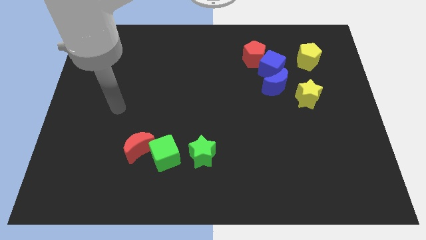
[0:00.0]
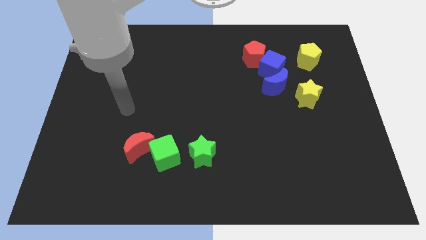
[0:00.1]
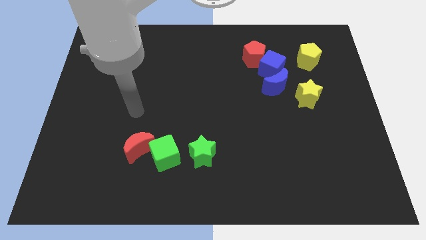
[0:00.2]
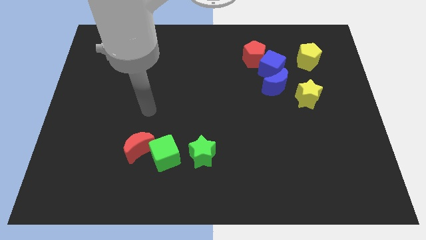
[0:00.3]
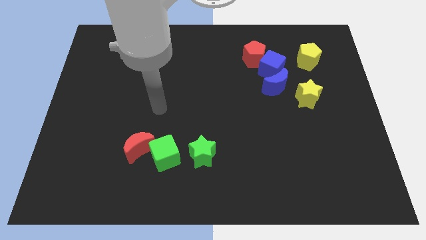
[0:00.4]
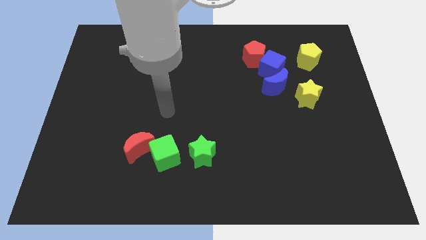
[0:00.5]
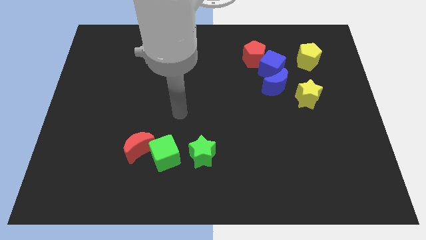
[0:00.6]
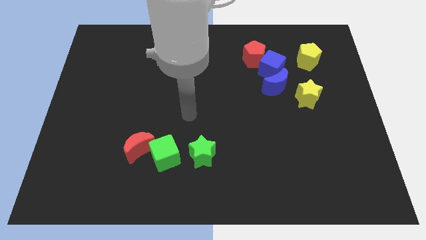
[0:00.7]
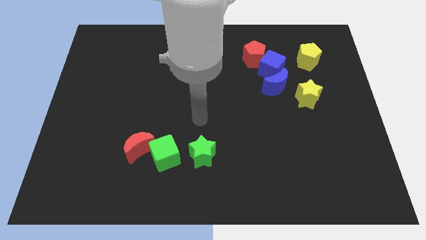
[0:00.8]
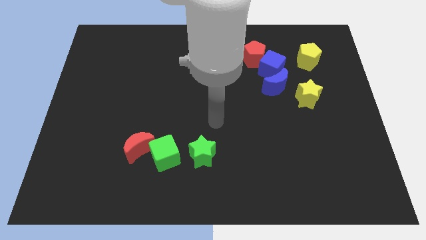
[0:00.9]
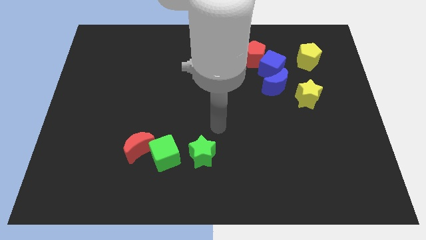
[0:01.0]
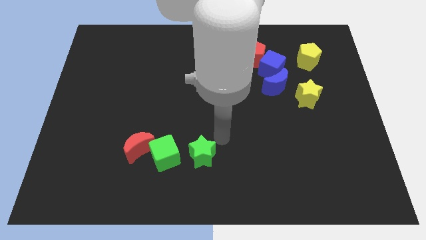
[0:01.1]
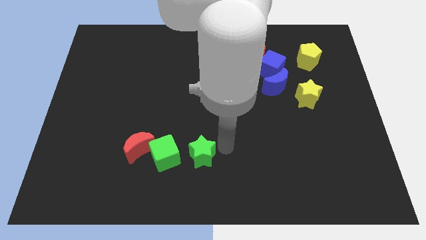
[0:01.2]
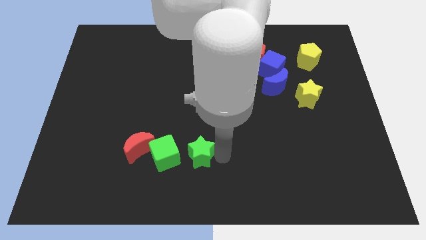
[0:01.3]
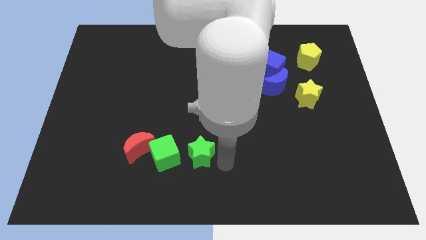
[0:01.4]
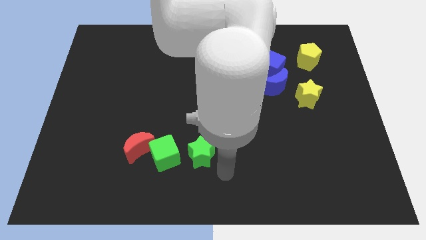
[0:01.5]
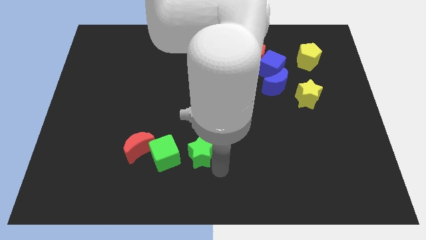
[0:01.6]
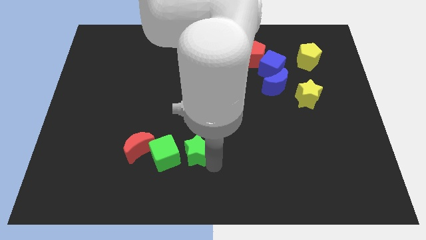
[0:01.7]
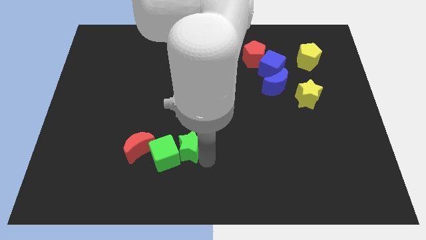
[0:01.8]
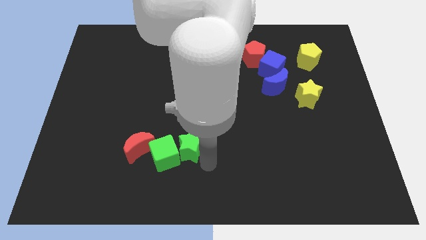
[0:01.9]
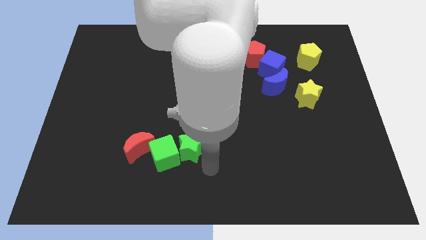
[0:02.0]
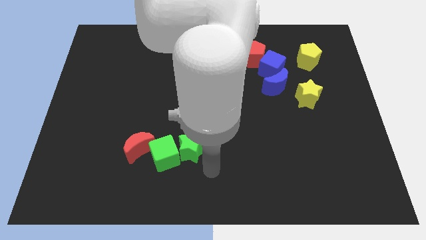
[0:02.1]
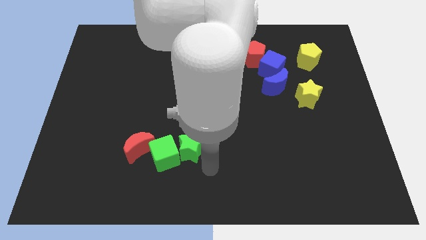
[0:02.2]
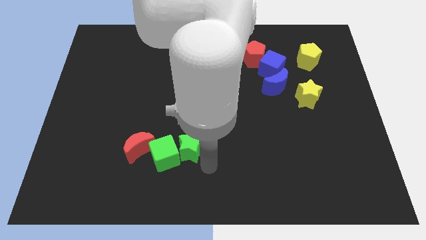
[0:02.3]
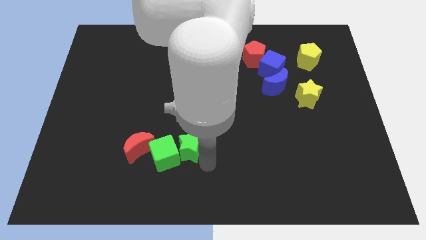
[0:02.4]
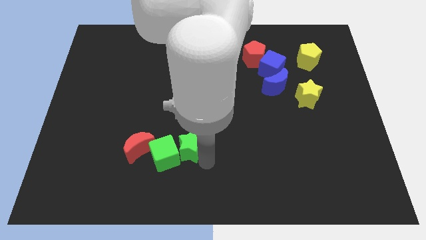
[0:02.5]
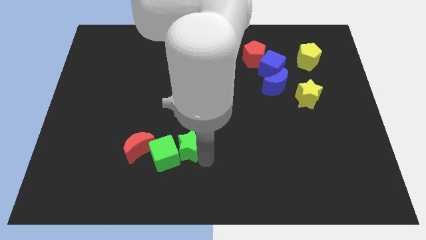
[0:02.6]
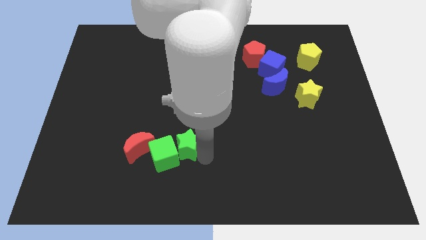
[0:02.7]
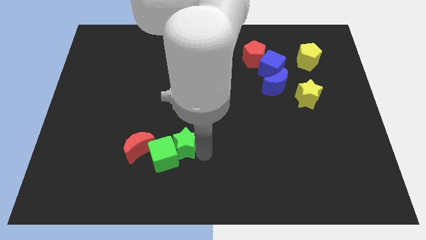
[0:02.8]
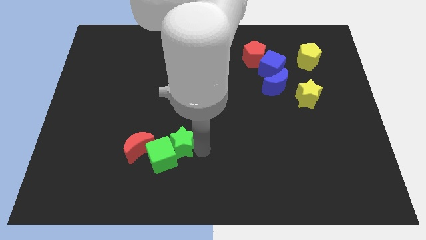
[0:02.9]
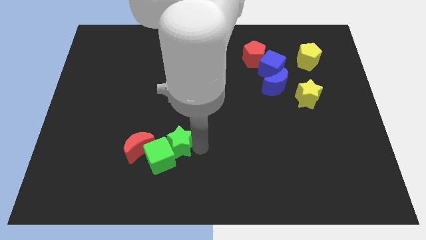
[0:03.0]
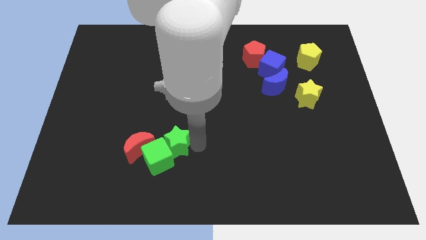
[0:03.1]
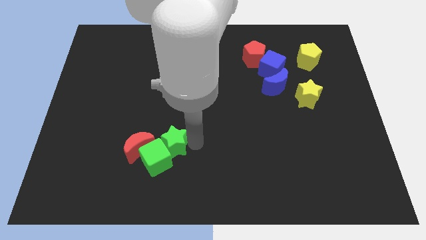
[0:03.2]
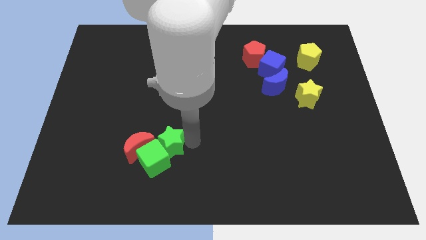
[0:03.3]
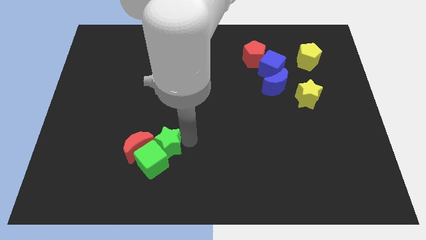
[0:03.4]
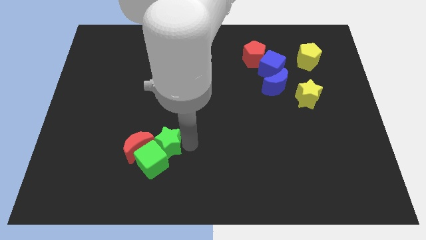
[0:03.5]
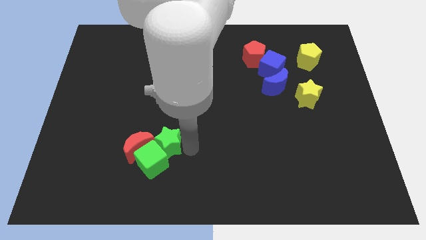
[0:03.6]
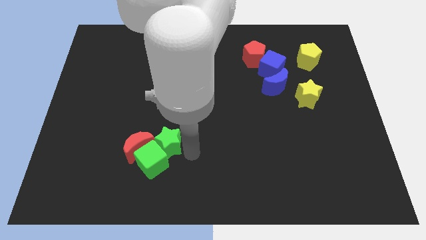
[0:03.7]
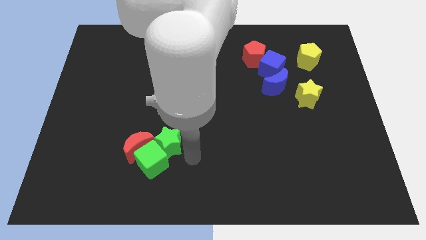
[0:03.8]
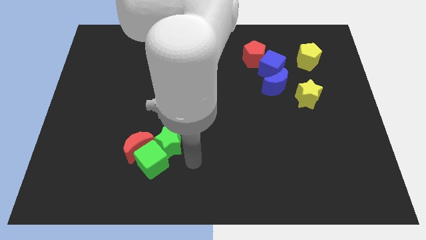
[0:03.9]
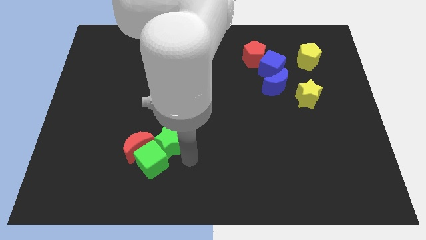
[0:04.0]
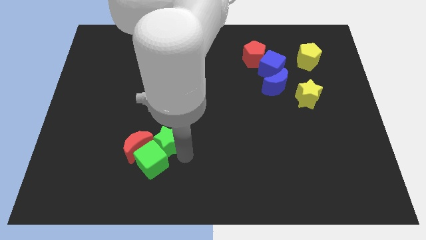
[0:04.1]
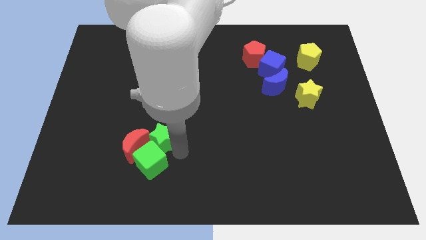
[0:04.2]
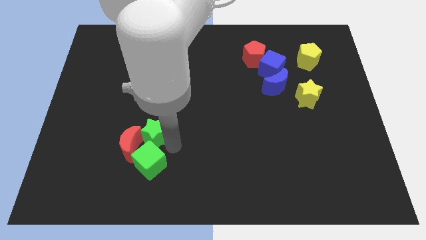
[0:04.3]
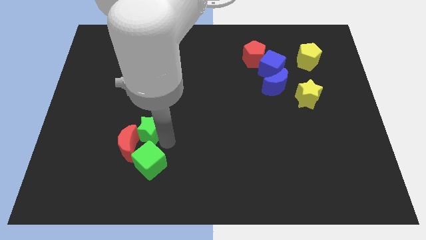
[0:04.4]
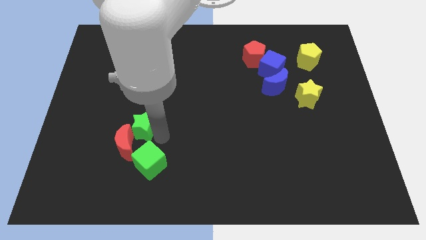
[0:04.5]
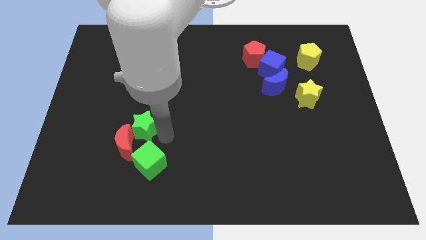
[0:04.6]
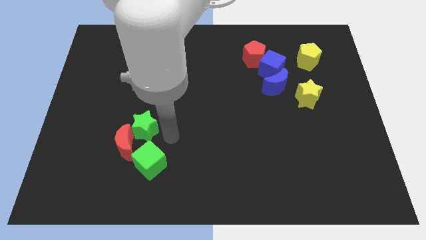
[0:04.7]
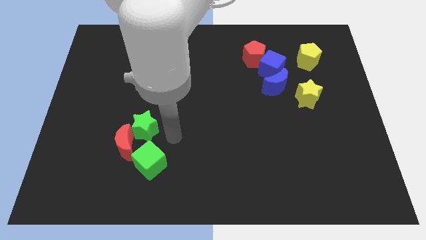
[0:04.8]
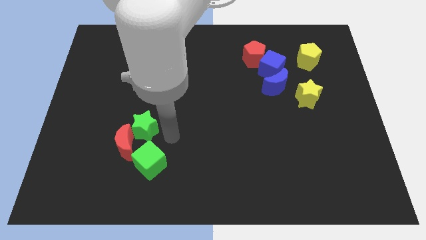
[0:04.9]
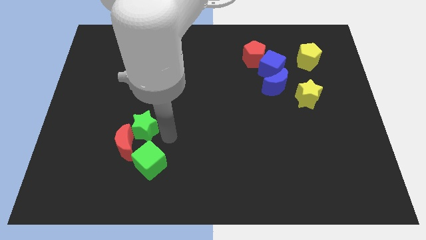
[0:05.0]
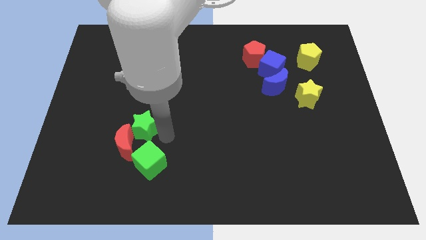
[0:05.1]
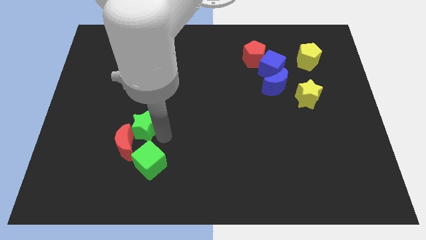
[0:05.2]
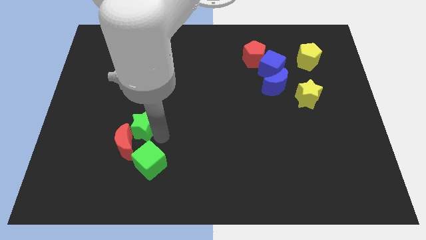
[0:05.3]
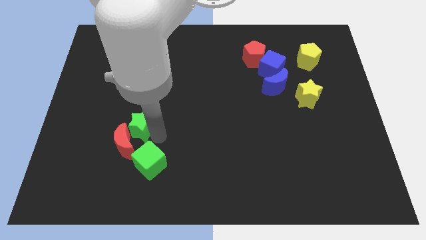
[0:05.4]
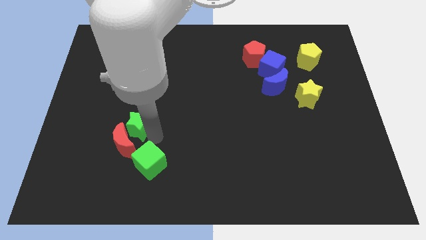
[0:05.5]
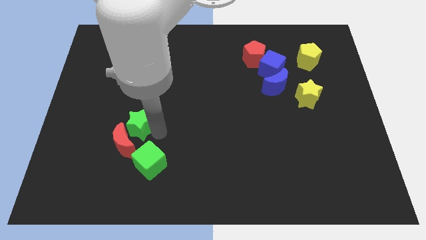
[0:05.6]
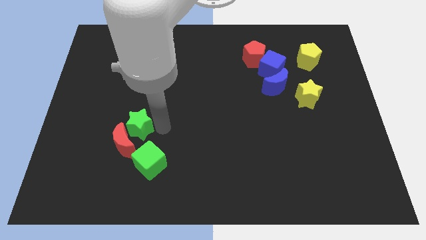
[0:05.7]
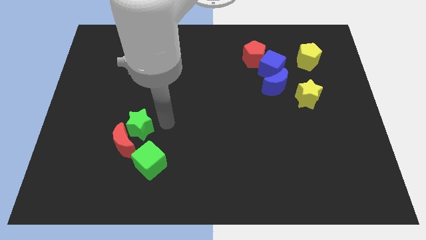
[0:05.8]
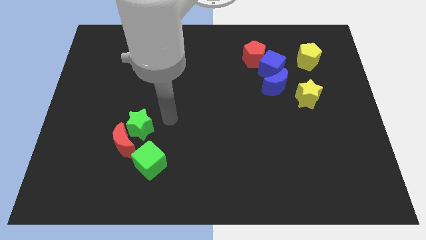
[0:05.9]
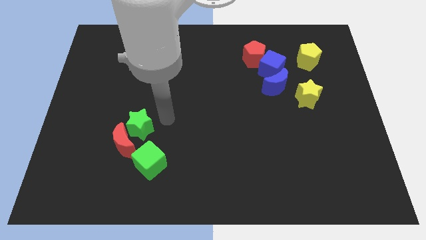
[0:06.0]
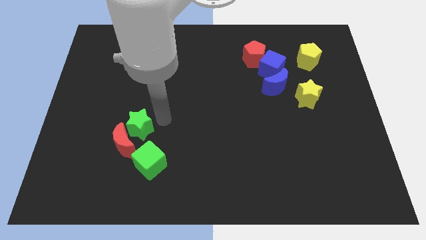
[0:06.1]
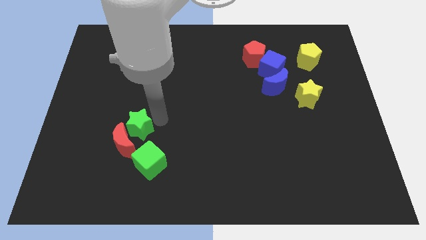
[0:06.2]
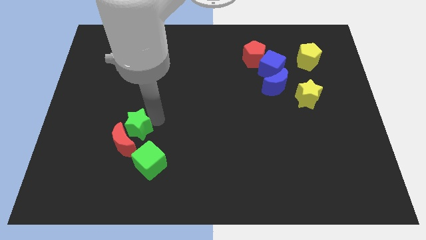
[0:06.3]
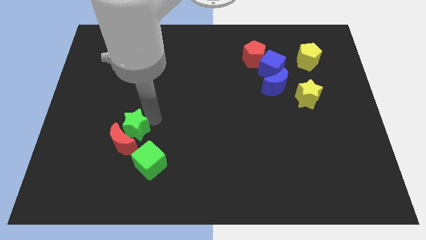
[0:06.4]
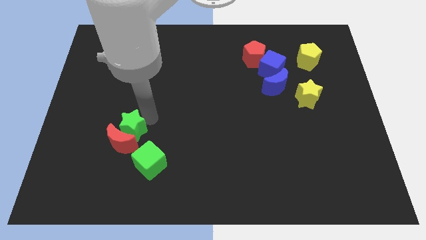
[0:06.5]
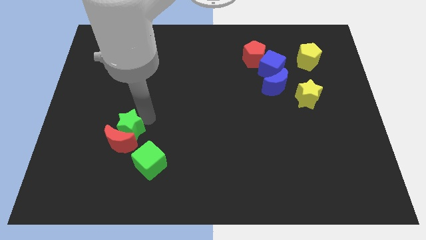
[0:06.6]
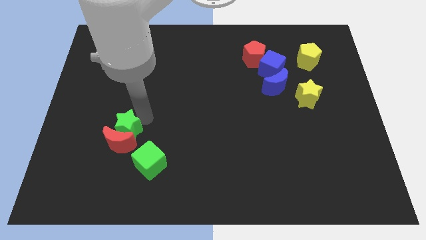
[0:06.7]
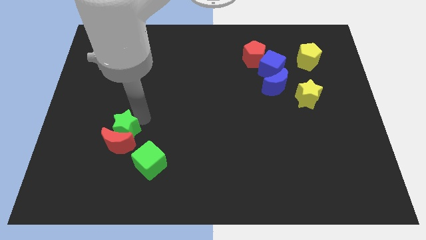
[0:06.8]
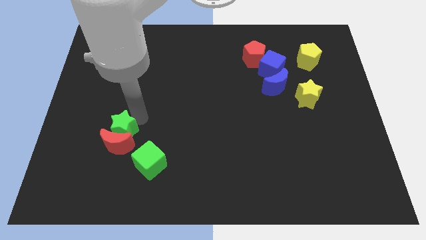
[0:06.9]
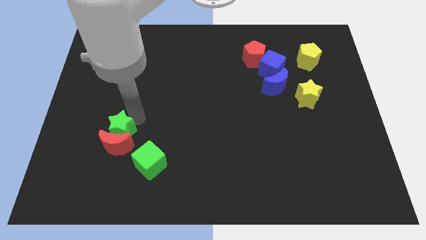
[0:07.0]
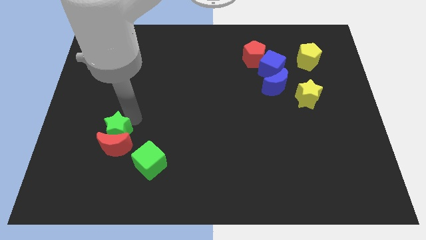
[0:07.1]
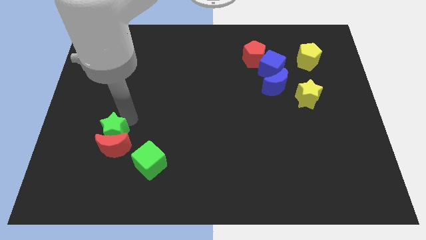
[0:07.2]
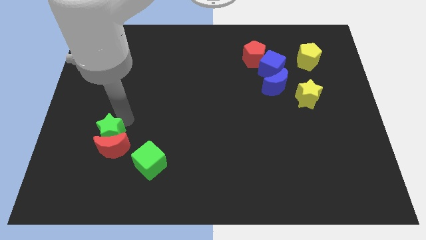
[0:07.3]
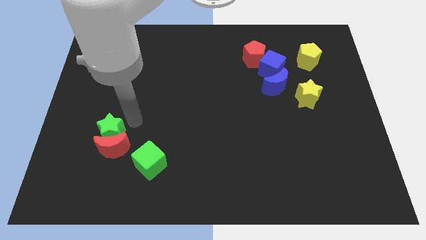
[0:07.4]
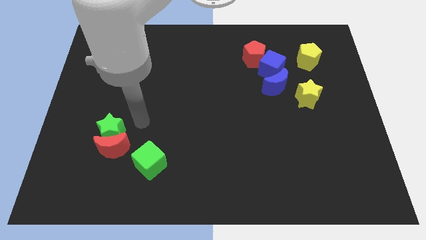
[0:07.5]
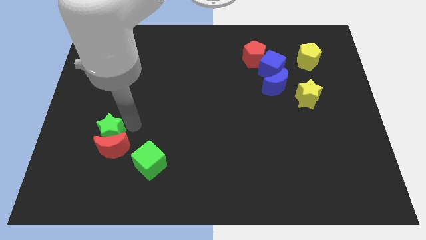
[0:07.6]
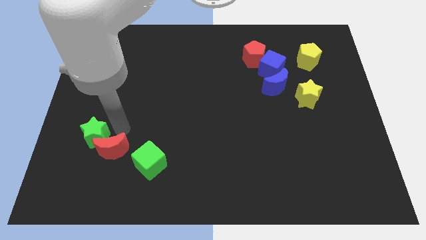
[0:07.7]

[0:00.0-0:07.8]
move the green star left of the red moon

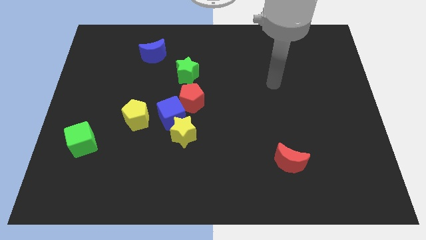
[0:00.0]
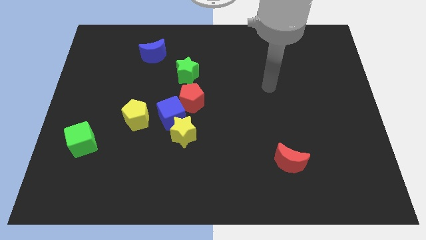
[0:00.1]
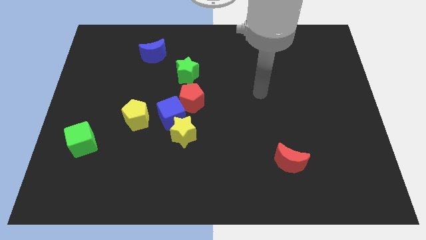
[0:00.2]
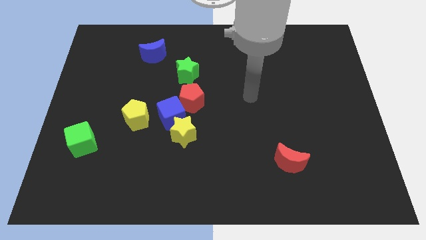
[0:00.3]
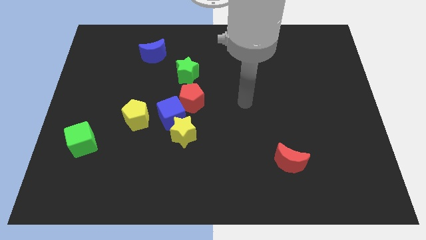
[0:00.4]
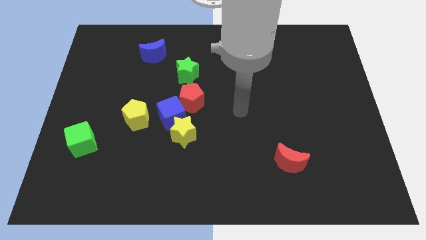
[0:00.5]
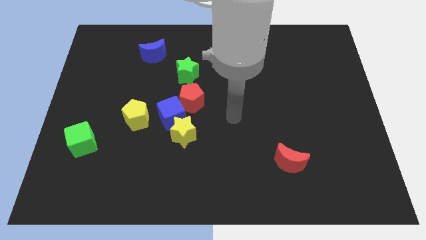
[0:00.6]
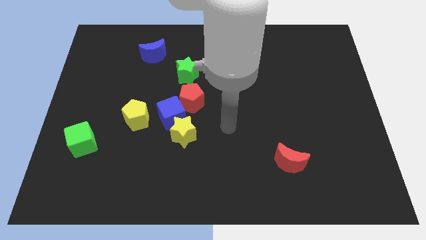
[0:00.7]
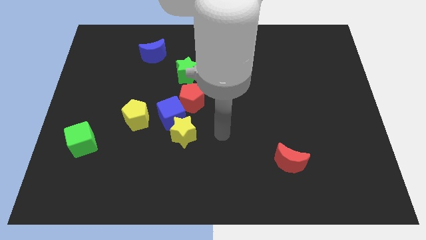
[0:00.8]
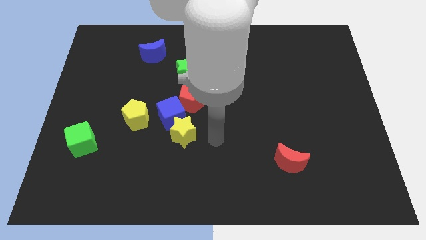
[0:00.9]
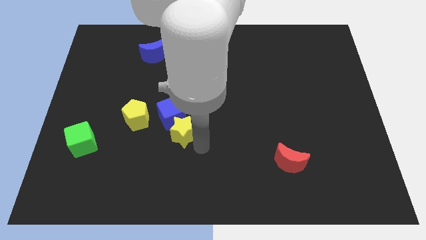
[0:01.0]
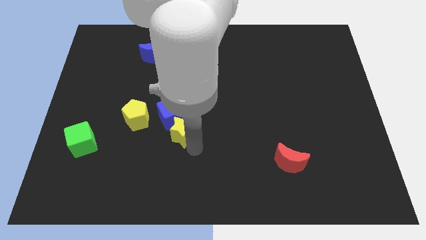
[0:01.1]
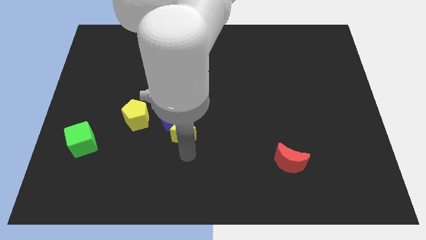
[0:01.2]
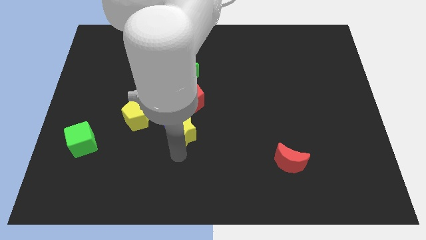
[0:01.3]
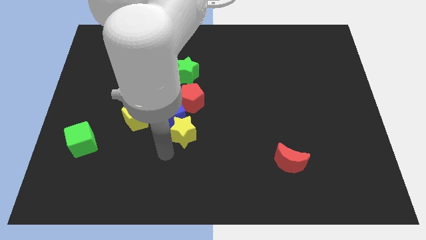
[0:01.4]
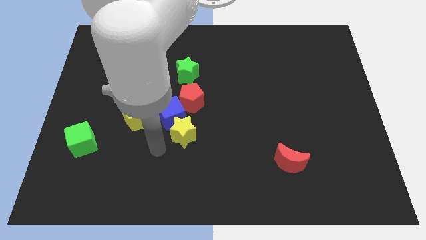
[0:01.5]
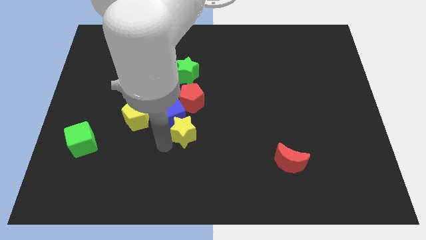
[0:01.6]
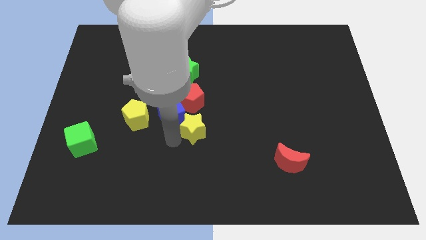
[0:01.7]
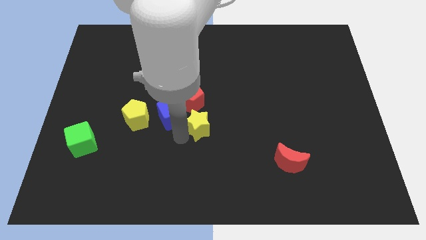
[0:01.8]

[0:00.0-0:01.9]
push the yellow star diagonally down and to the right of the red pentagon
